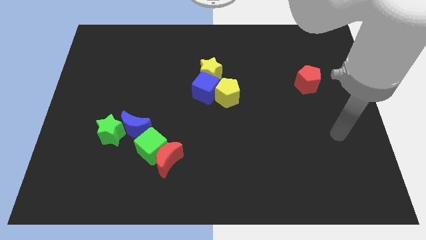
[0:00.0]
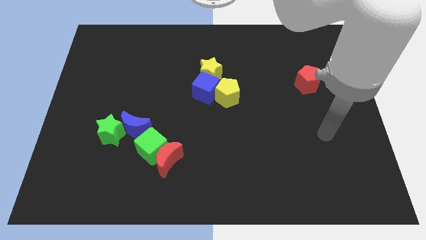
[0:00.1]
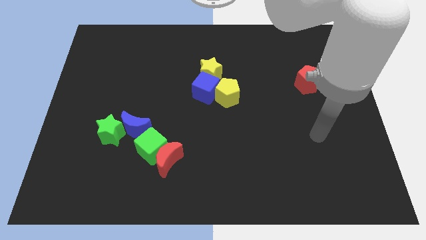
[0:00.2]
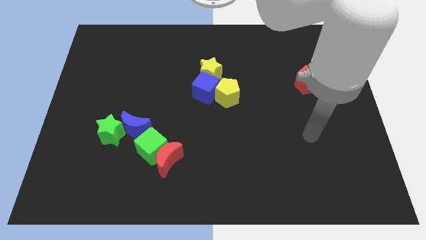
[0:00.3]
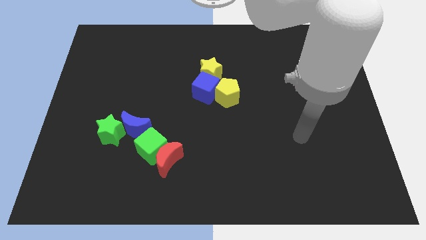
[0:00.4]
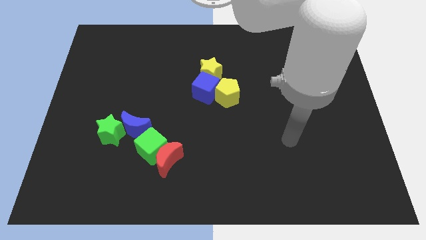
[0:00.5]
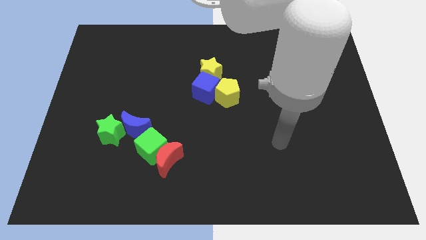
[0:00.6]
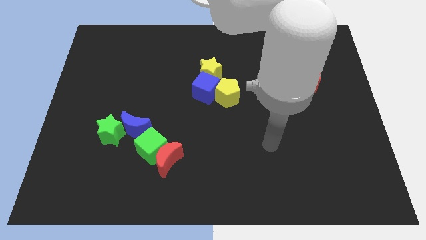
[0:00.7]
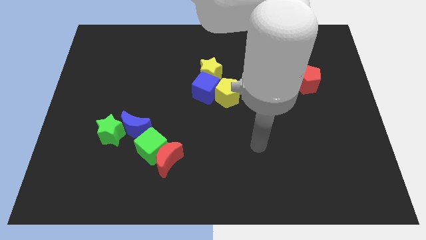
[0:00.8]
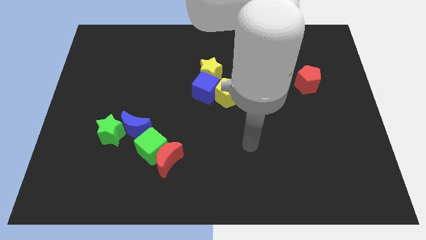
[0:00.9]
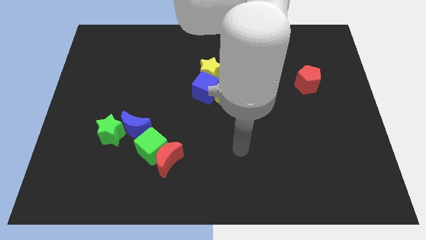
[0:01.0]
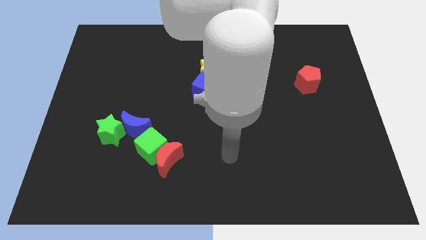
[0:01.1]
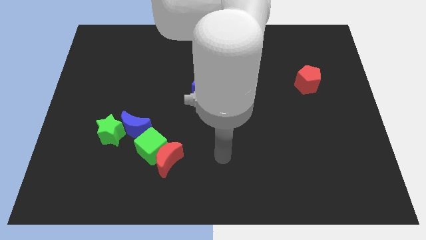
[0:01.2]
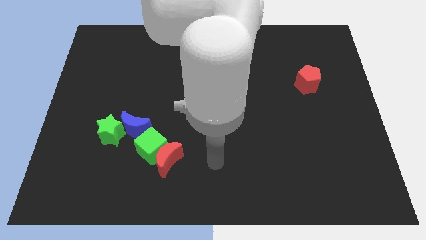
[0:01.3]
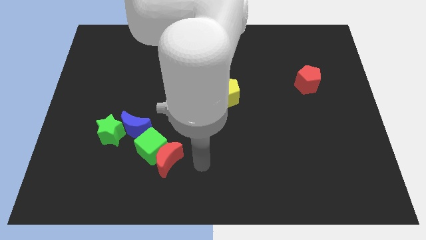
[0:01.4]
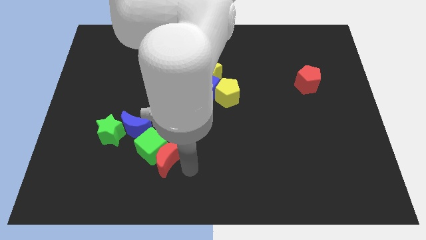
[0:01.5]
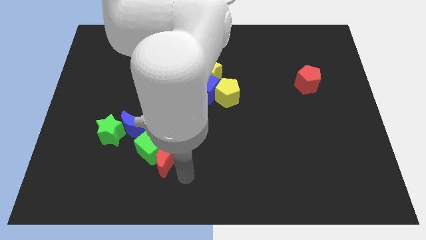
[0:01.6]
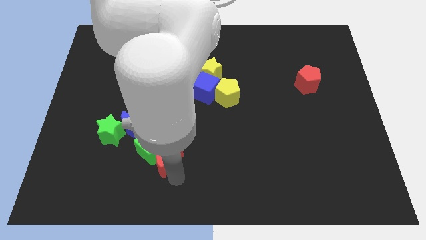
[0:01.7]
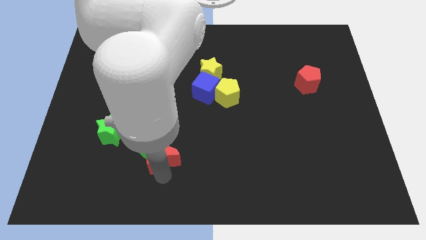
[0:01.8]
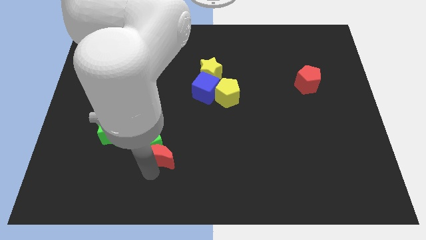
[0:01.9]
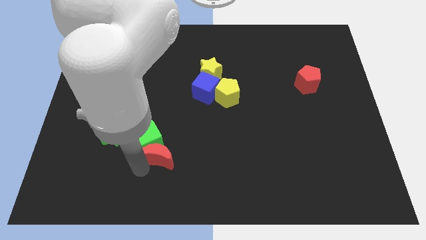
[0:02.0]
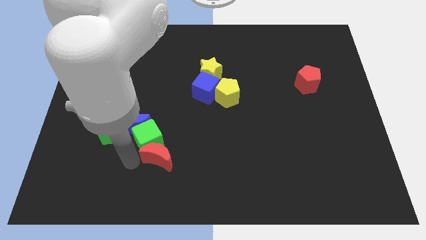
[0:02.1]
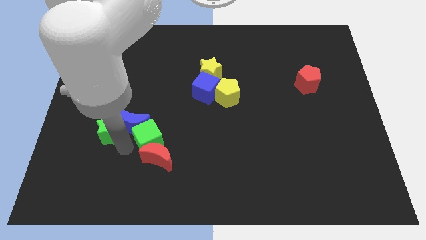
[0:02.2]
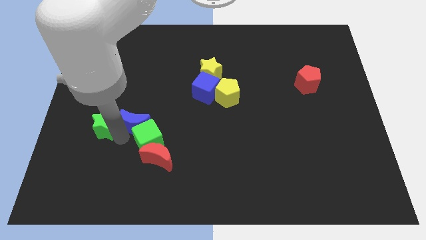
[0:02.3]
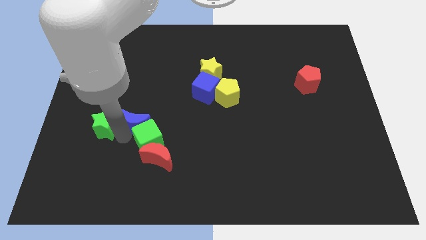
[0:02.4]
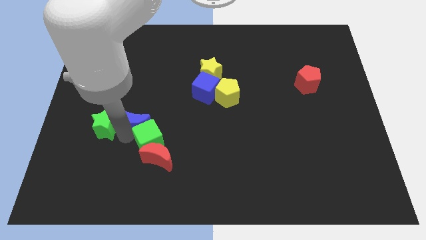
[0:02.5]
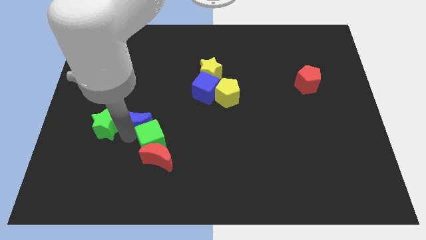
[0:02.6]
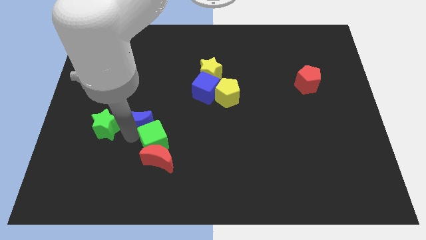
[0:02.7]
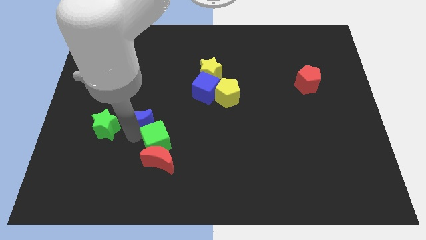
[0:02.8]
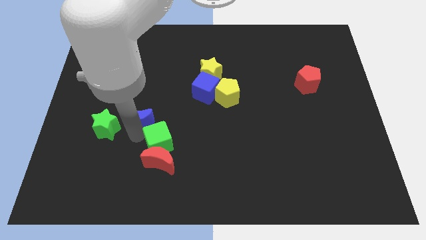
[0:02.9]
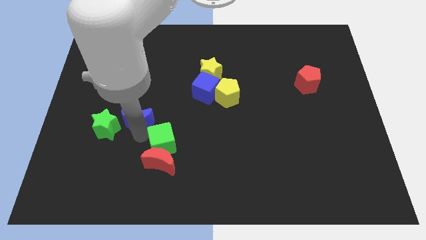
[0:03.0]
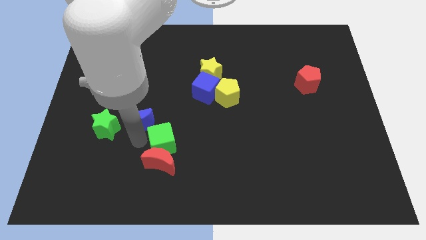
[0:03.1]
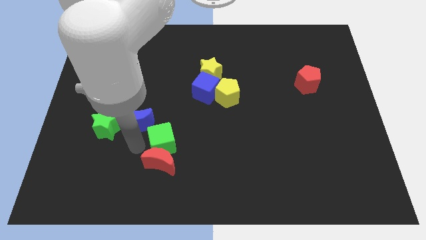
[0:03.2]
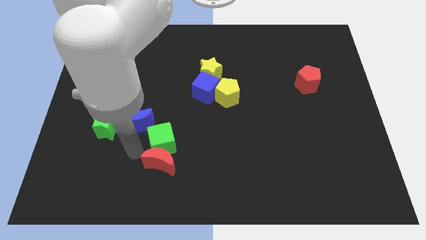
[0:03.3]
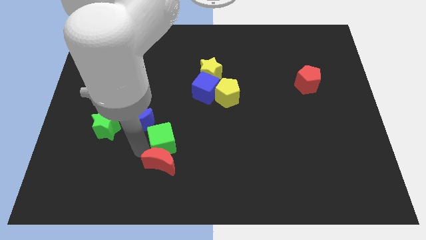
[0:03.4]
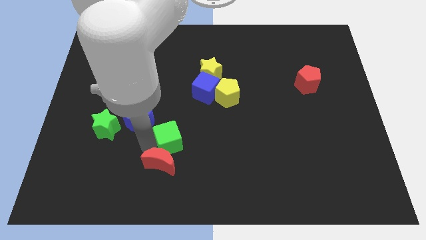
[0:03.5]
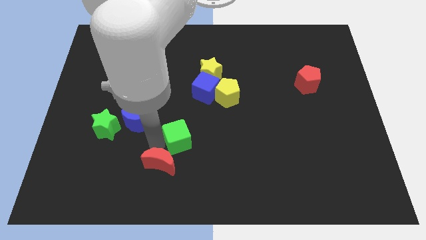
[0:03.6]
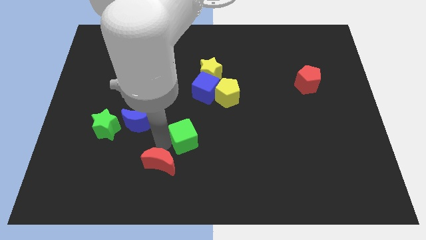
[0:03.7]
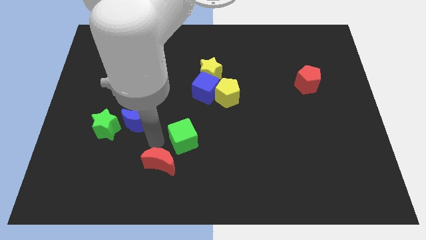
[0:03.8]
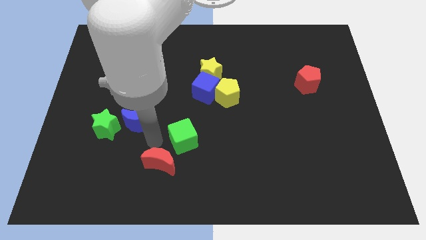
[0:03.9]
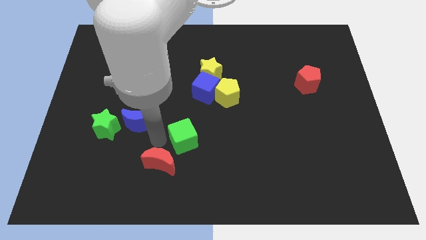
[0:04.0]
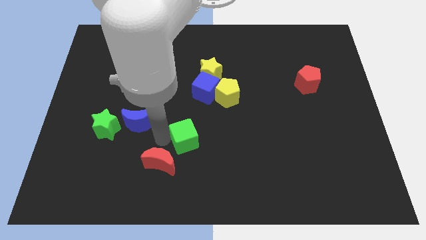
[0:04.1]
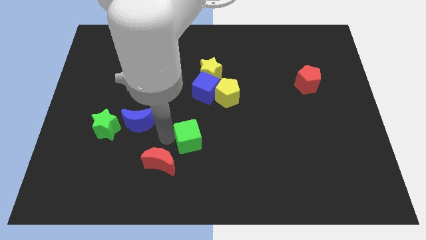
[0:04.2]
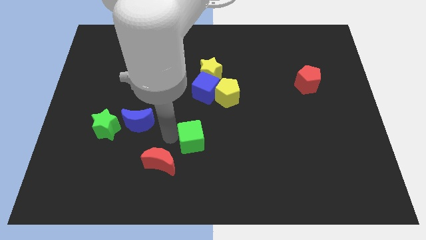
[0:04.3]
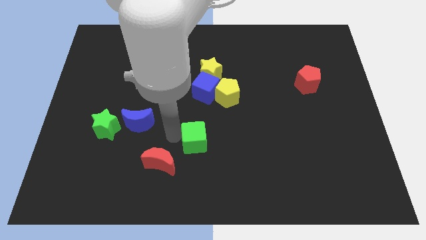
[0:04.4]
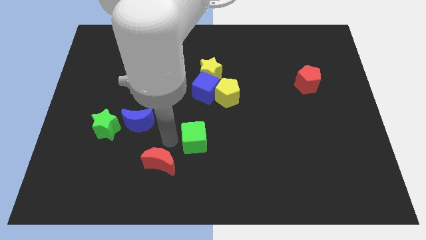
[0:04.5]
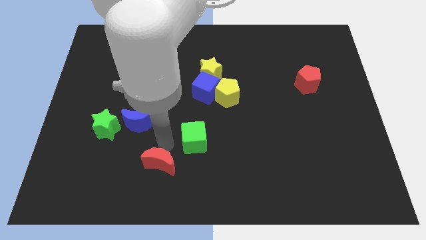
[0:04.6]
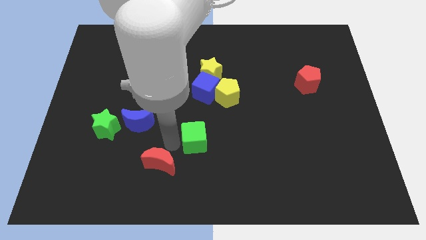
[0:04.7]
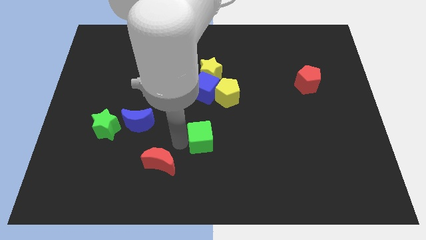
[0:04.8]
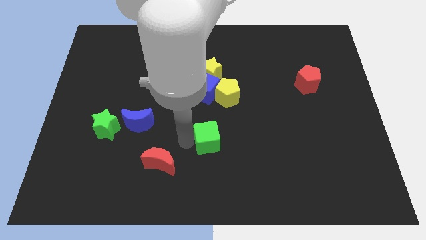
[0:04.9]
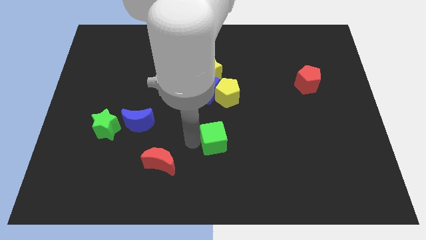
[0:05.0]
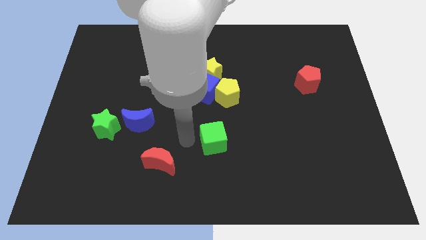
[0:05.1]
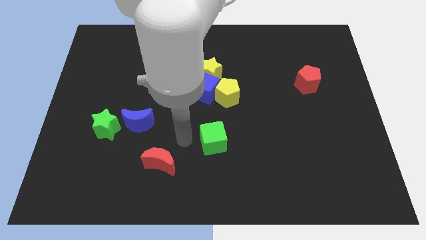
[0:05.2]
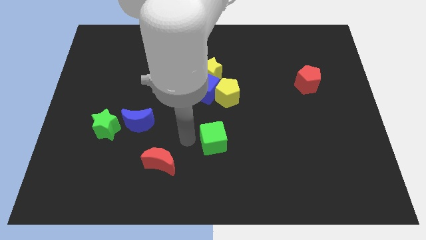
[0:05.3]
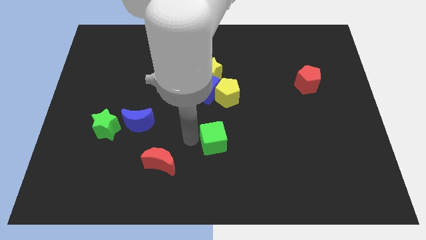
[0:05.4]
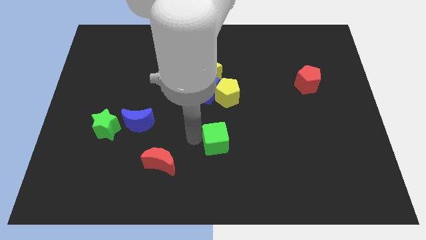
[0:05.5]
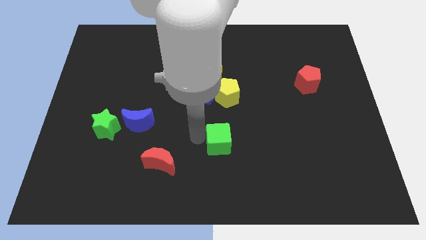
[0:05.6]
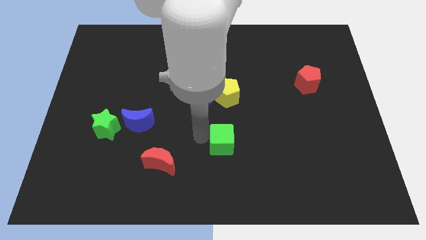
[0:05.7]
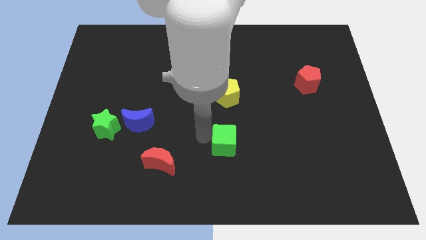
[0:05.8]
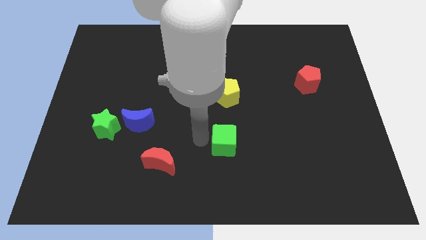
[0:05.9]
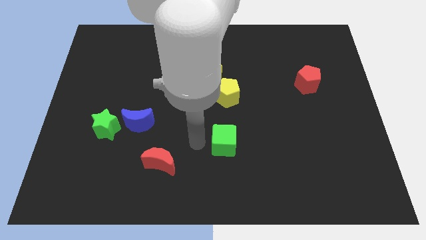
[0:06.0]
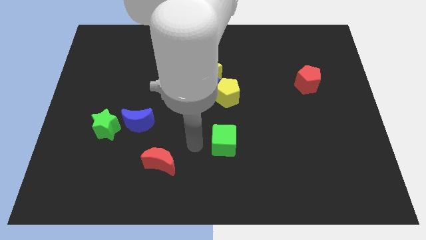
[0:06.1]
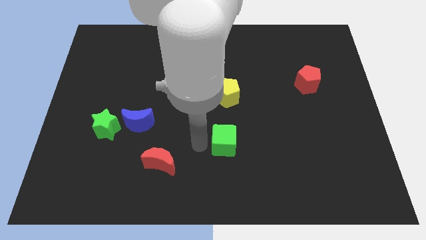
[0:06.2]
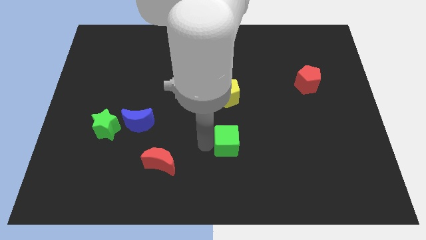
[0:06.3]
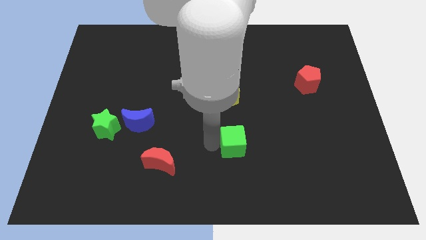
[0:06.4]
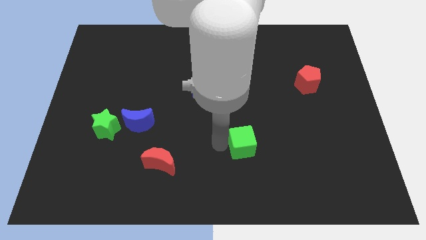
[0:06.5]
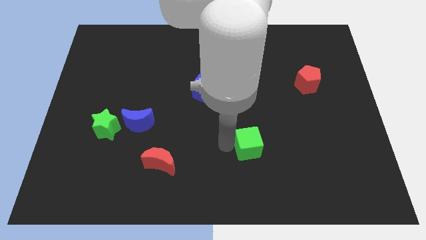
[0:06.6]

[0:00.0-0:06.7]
move the green cube right

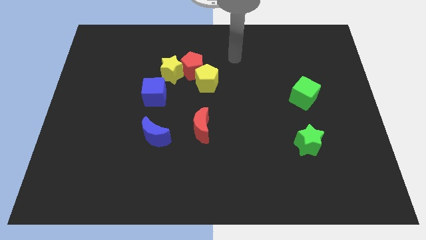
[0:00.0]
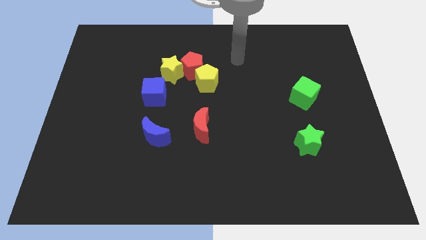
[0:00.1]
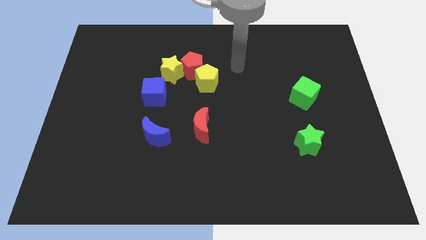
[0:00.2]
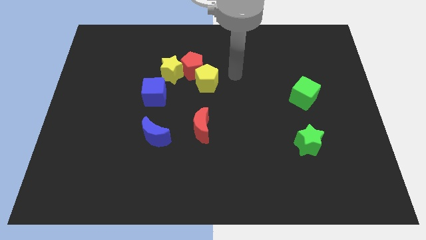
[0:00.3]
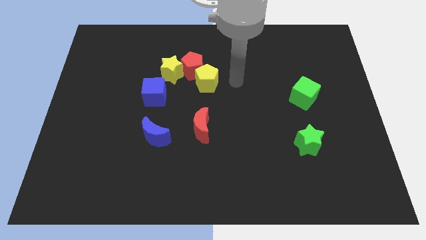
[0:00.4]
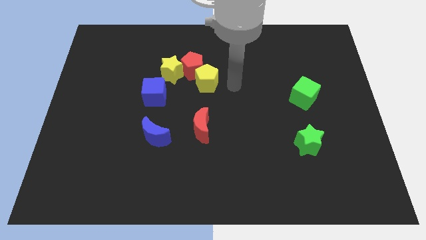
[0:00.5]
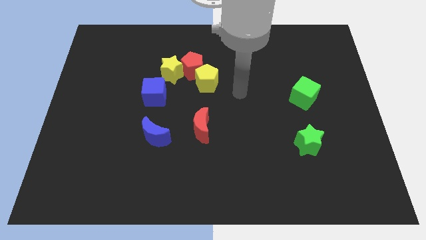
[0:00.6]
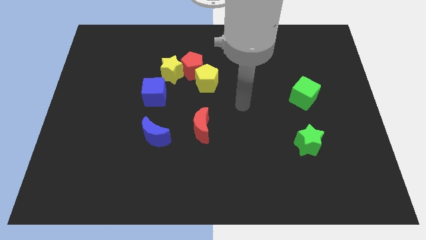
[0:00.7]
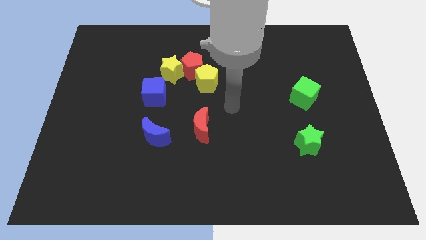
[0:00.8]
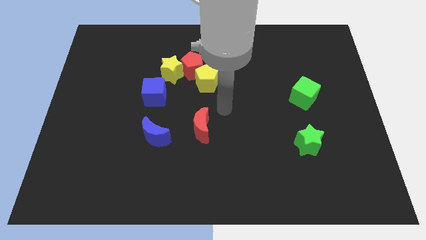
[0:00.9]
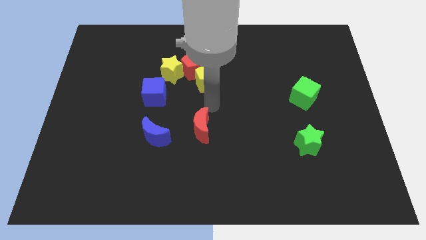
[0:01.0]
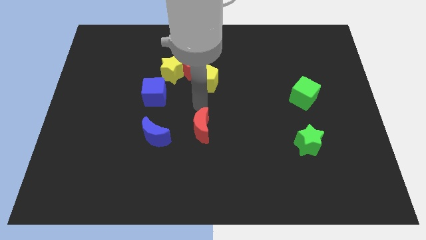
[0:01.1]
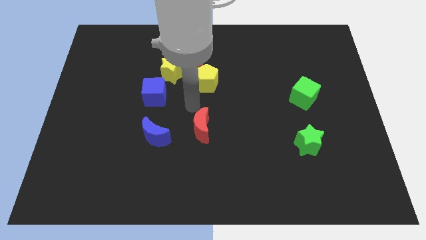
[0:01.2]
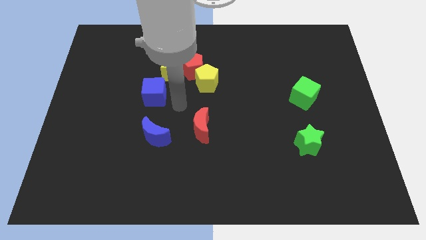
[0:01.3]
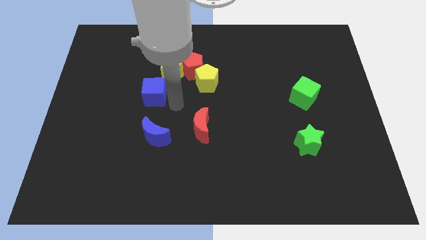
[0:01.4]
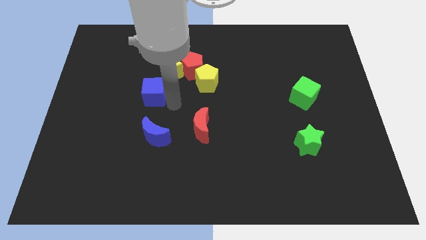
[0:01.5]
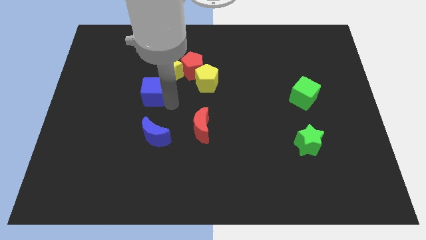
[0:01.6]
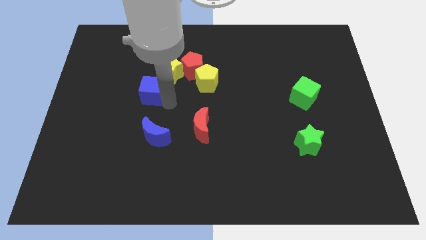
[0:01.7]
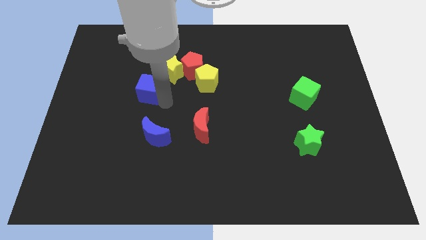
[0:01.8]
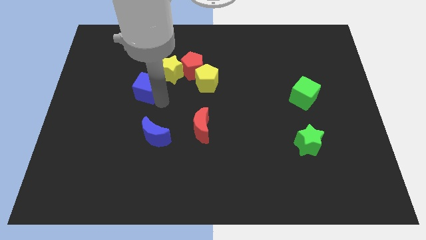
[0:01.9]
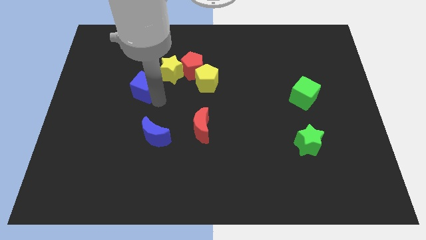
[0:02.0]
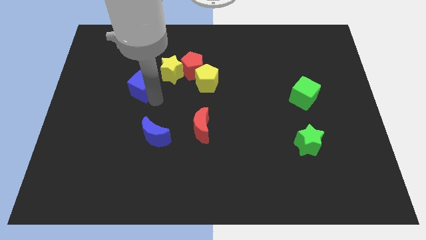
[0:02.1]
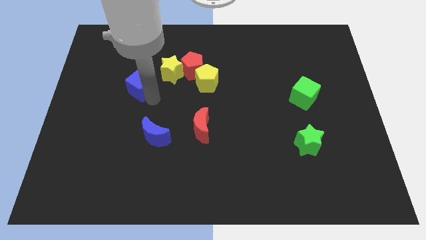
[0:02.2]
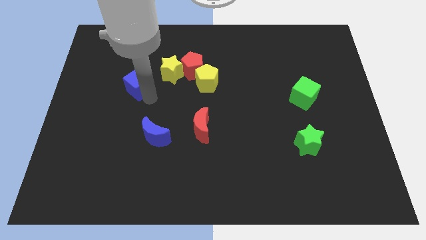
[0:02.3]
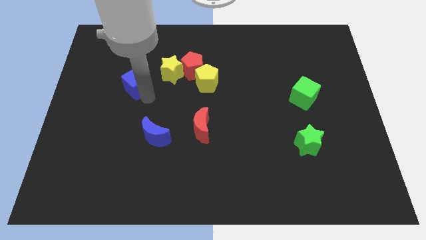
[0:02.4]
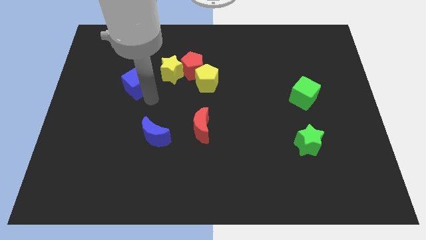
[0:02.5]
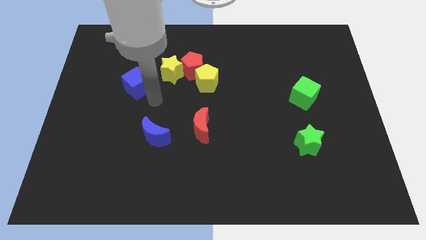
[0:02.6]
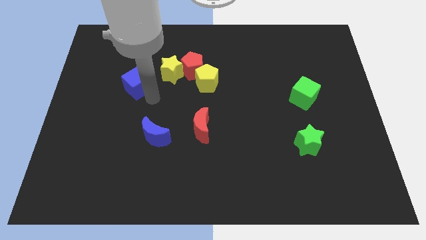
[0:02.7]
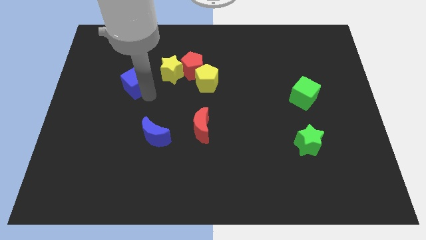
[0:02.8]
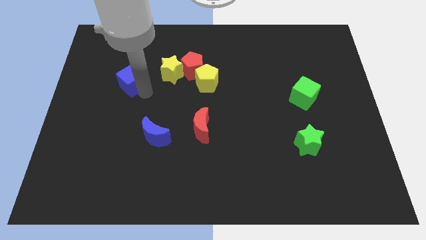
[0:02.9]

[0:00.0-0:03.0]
slide the blue cube upwards and left somewhat
